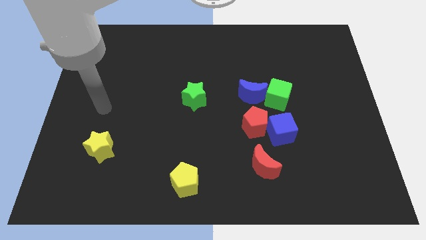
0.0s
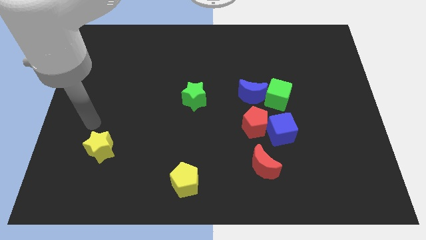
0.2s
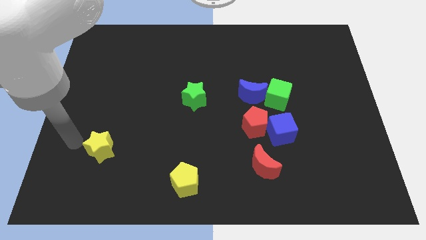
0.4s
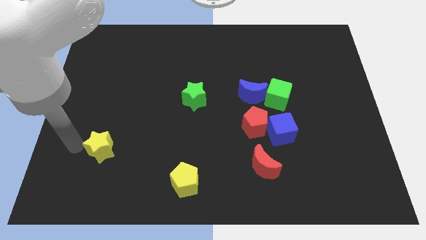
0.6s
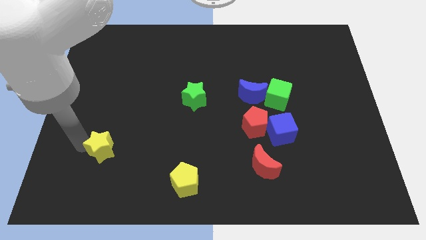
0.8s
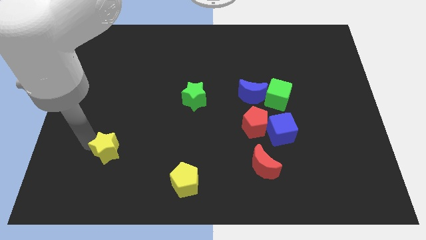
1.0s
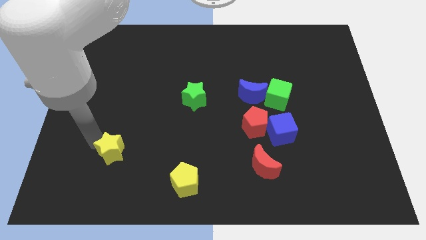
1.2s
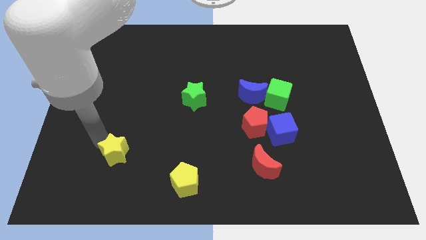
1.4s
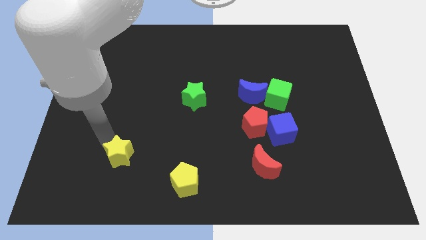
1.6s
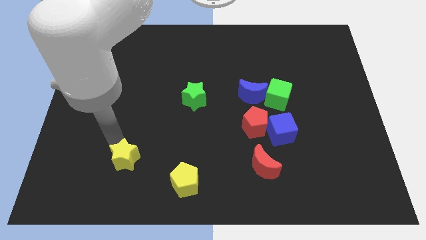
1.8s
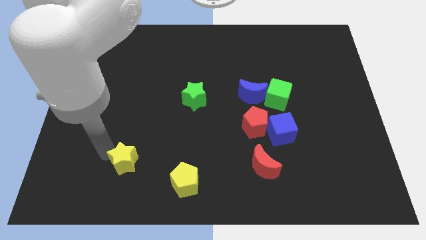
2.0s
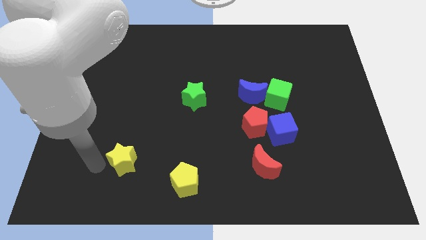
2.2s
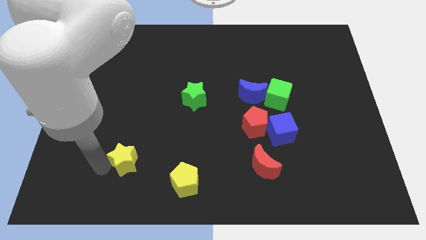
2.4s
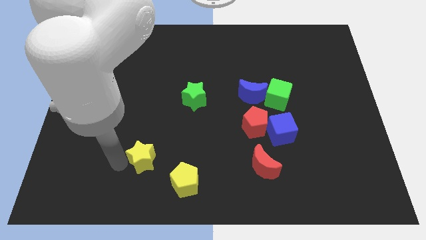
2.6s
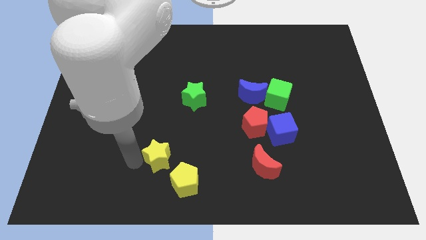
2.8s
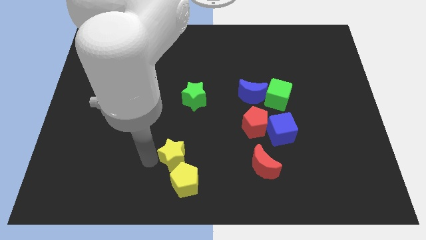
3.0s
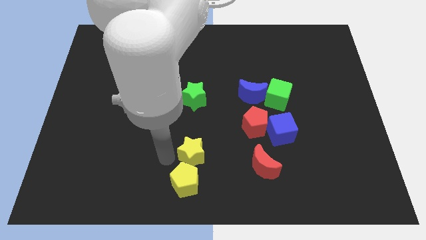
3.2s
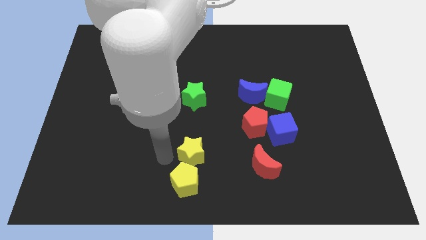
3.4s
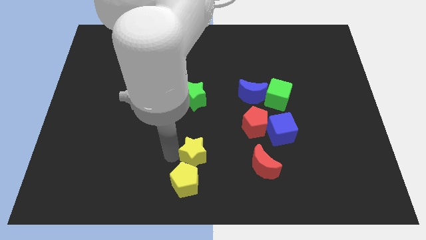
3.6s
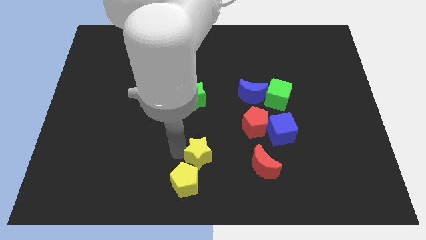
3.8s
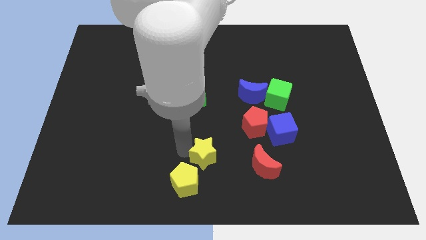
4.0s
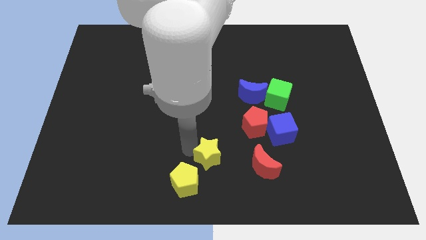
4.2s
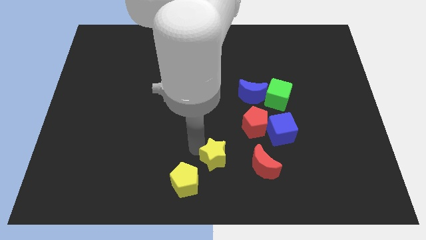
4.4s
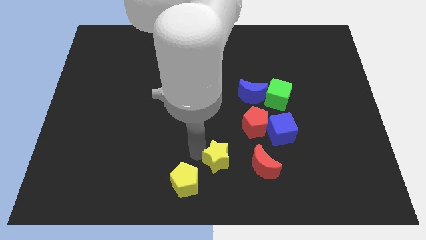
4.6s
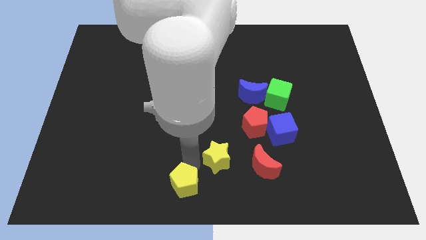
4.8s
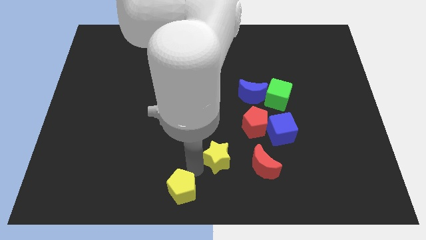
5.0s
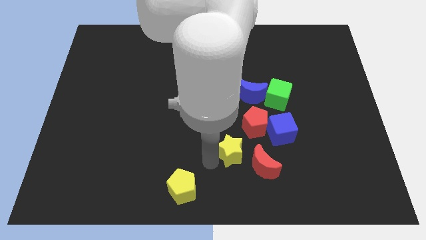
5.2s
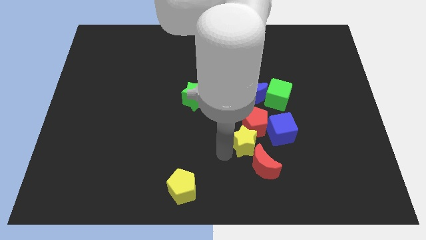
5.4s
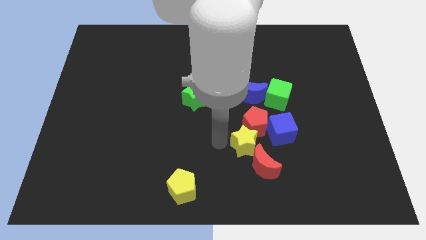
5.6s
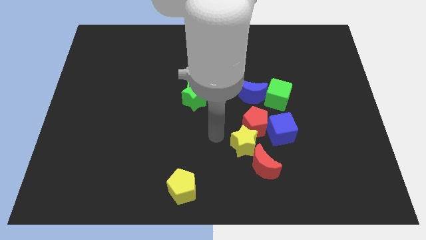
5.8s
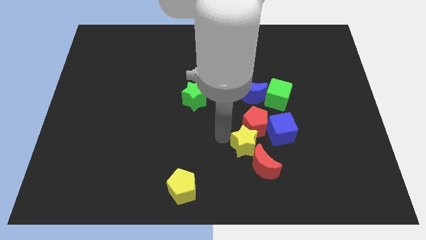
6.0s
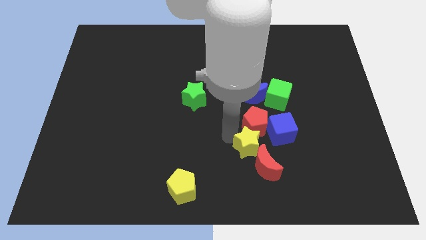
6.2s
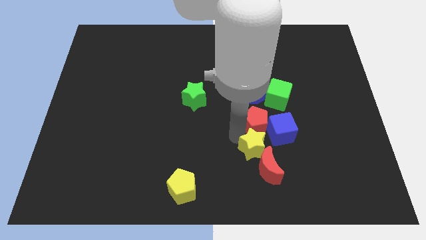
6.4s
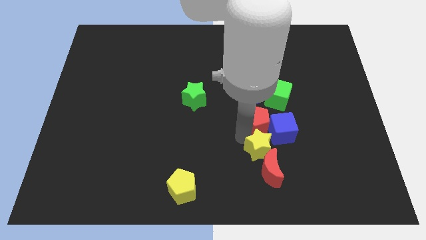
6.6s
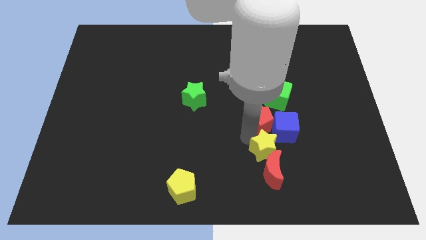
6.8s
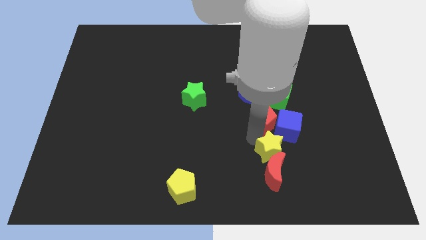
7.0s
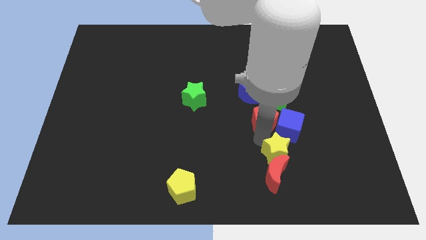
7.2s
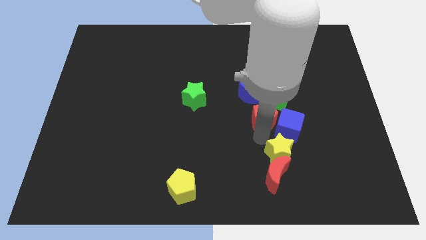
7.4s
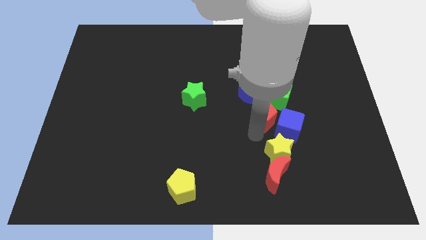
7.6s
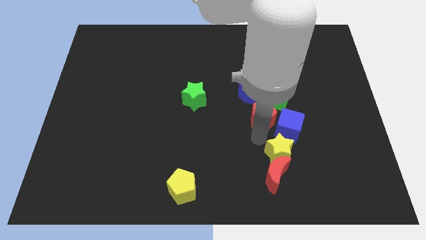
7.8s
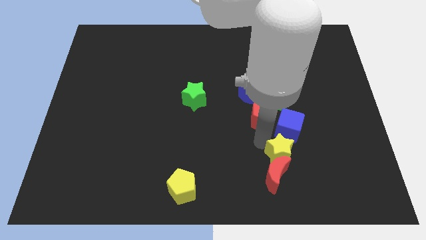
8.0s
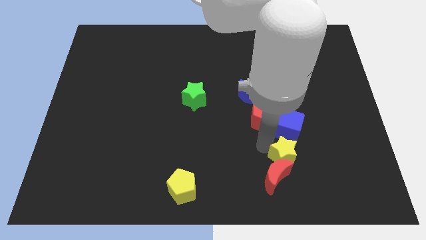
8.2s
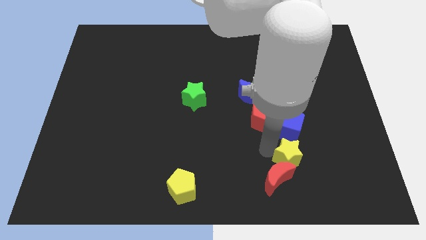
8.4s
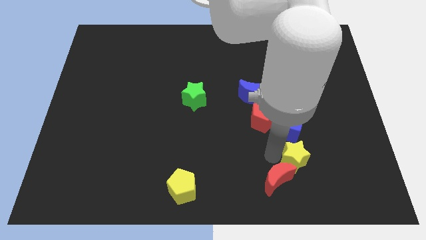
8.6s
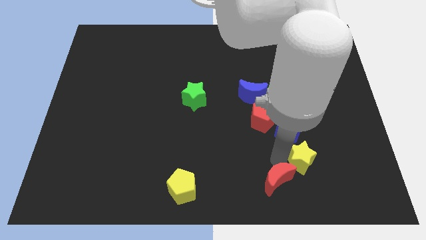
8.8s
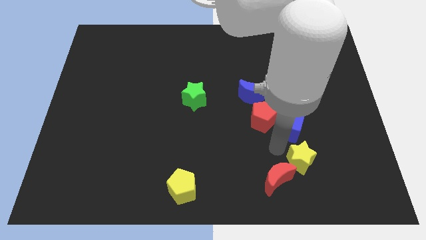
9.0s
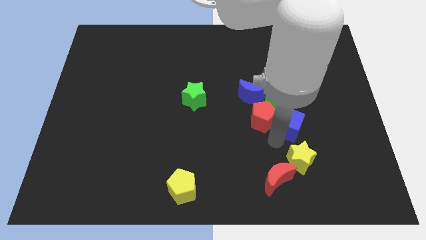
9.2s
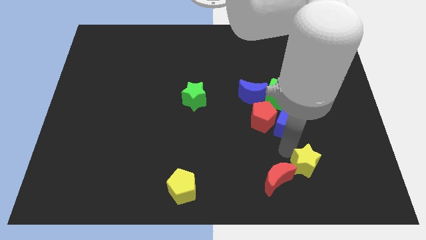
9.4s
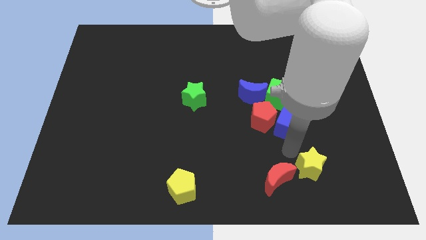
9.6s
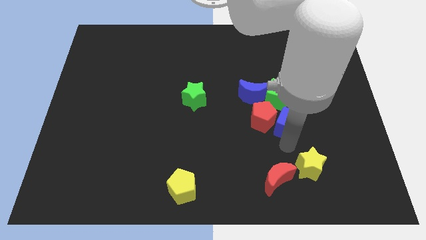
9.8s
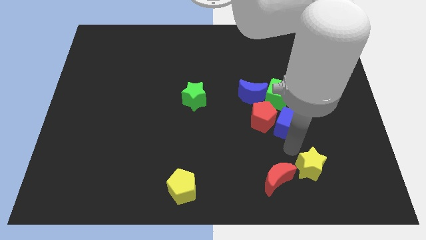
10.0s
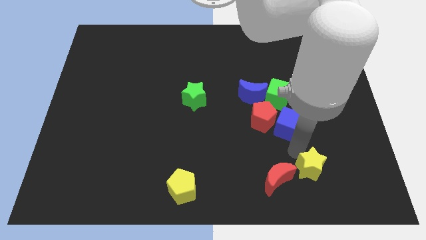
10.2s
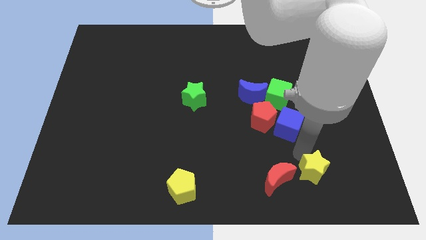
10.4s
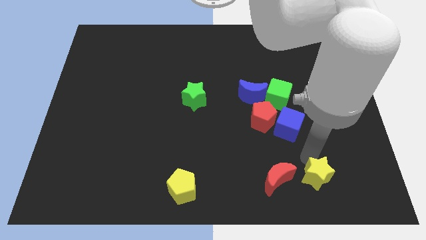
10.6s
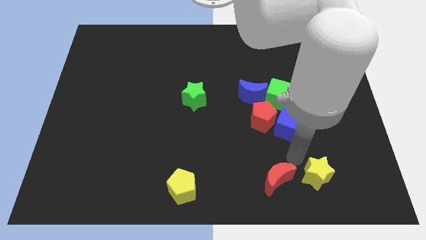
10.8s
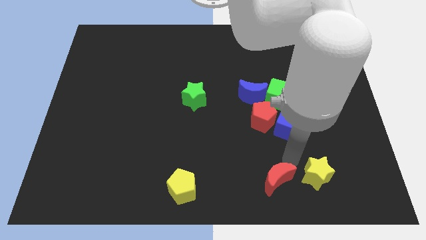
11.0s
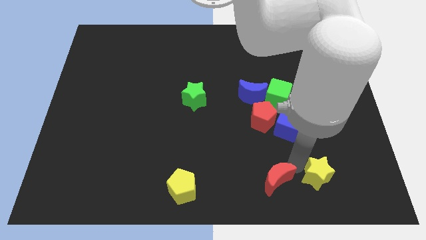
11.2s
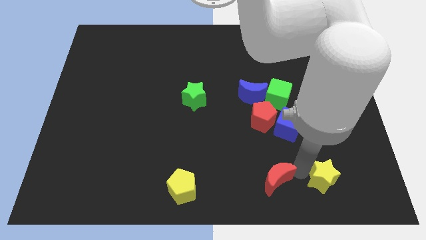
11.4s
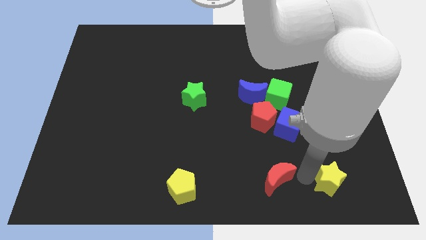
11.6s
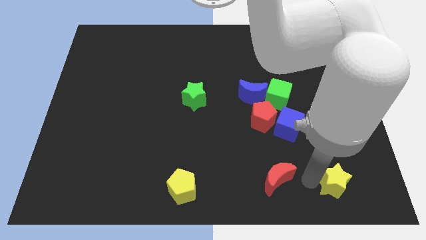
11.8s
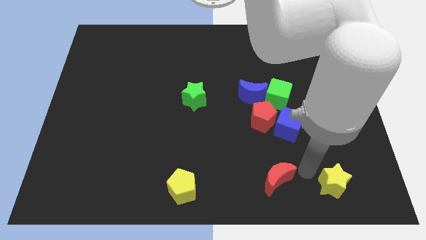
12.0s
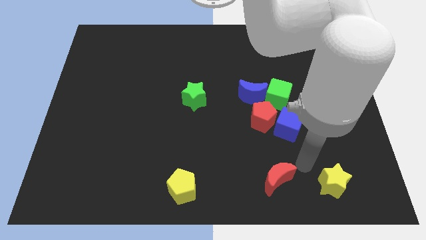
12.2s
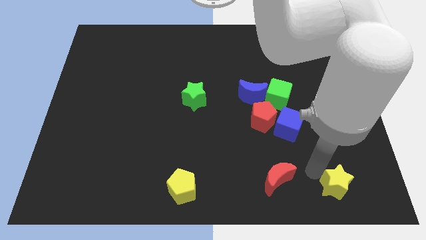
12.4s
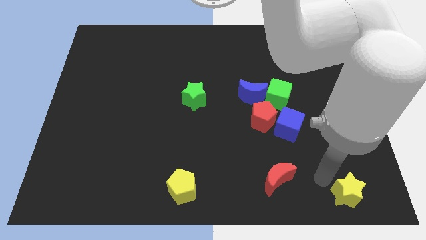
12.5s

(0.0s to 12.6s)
move the yellow star to the bottom right
